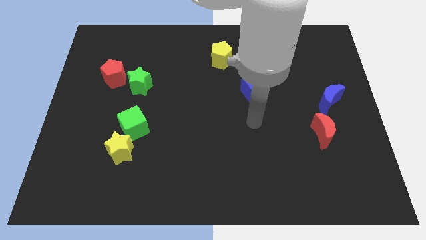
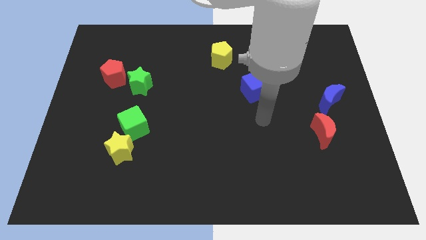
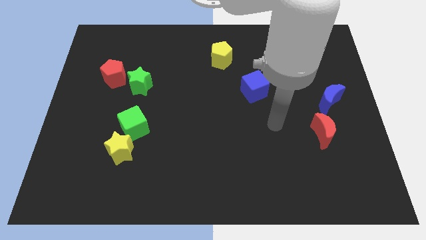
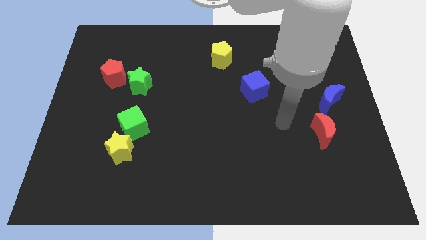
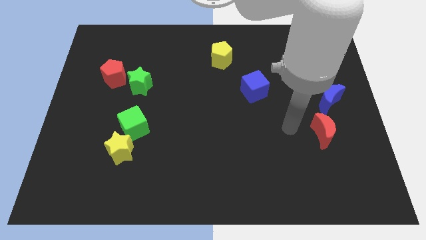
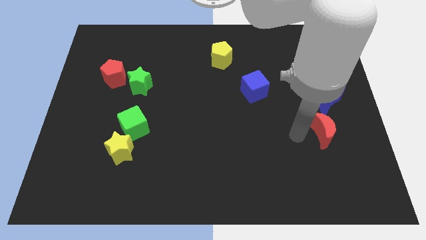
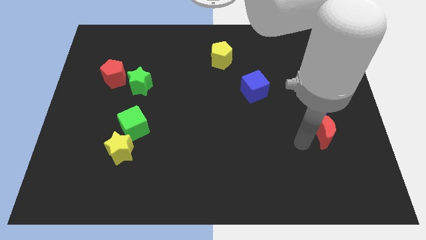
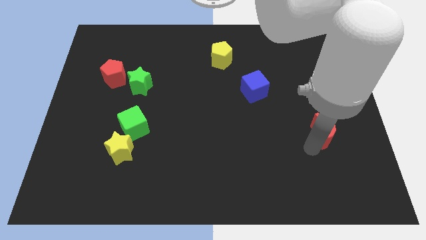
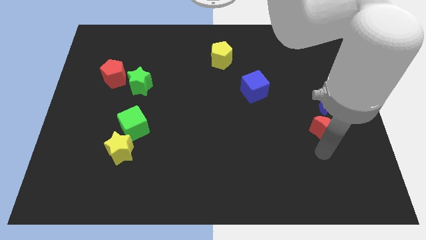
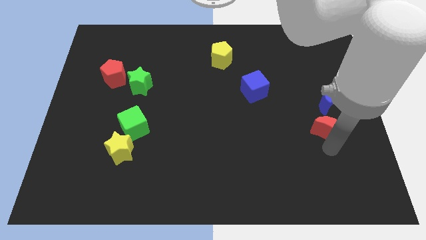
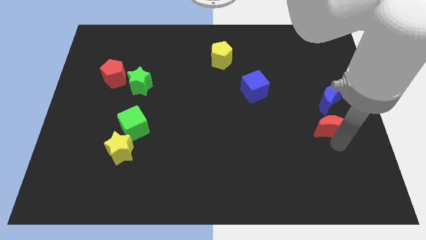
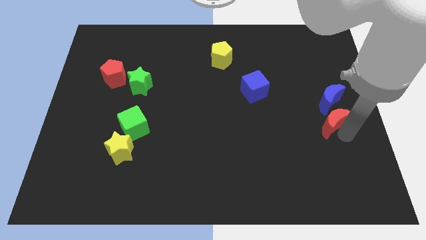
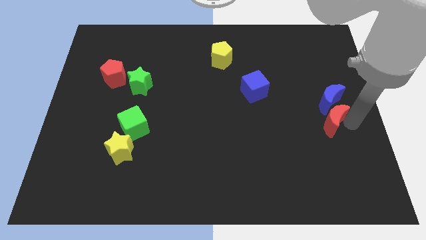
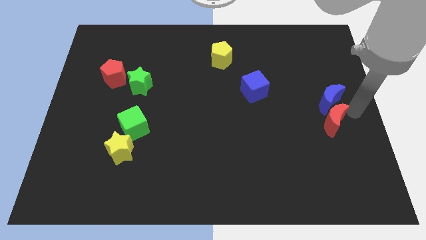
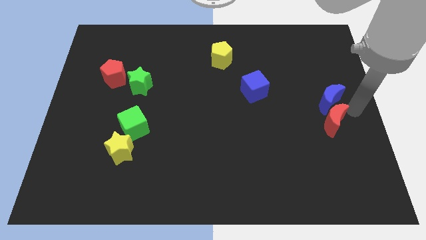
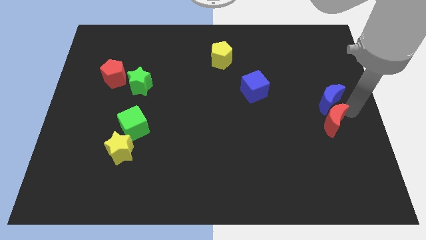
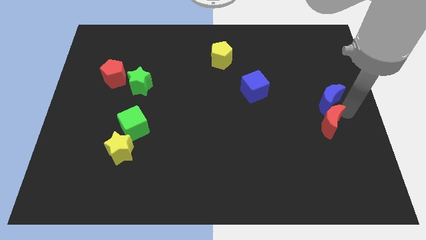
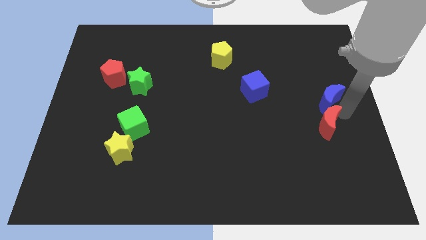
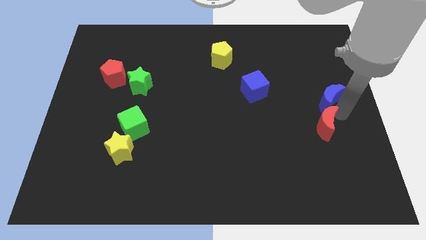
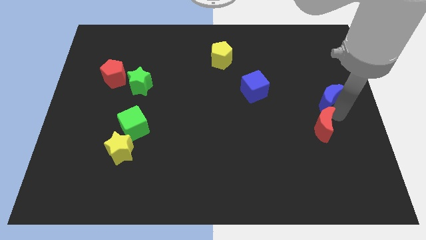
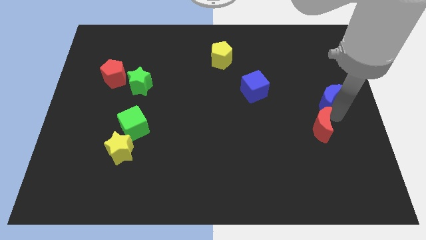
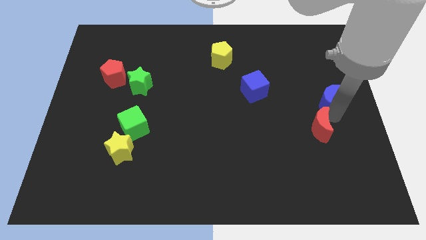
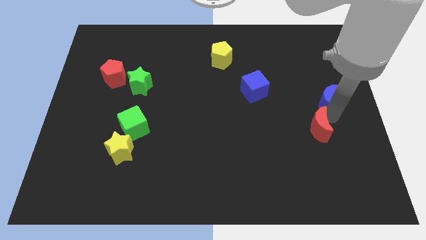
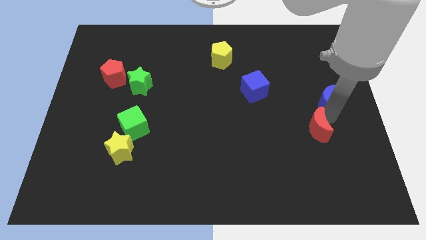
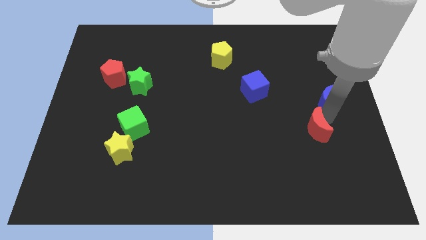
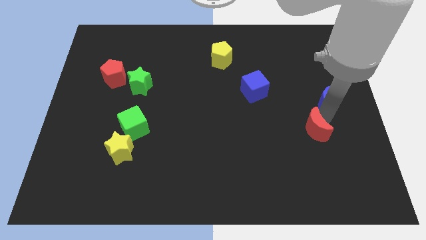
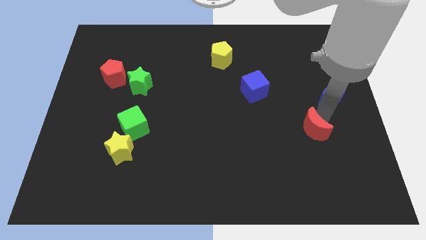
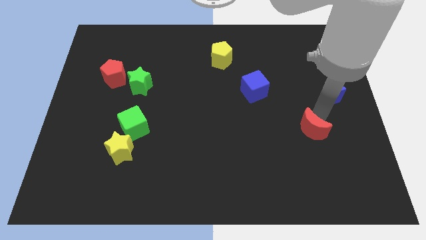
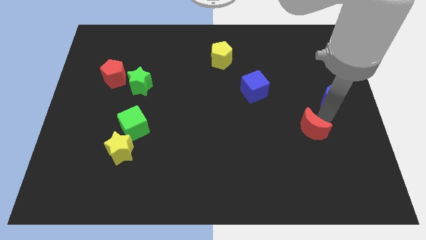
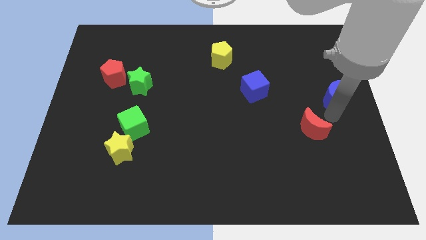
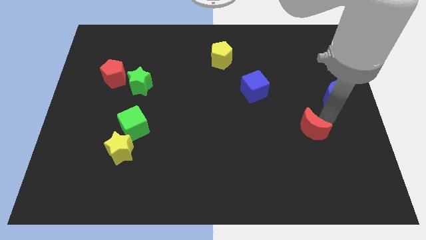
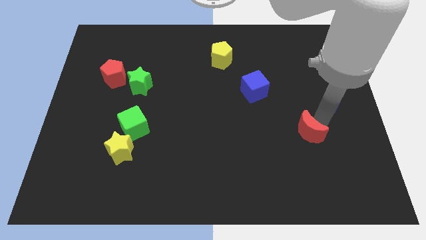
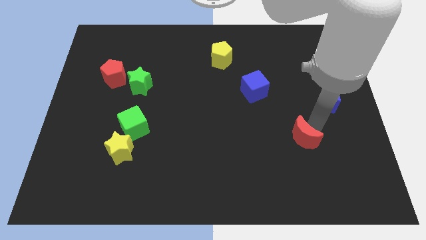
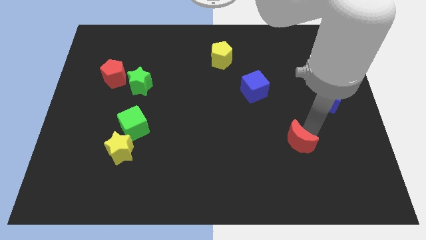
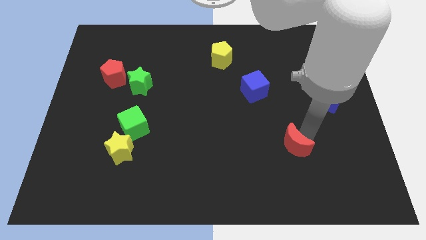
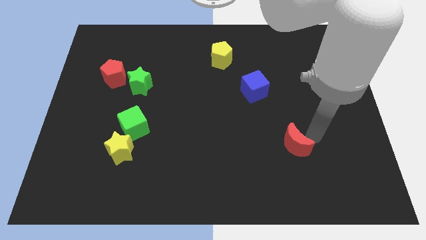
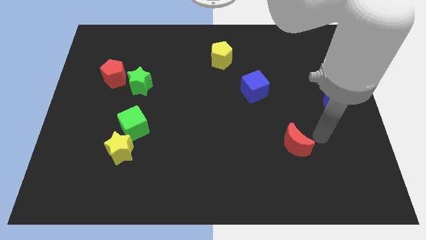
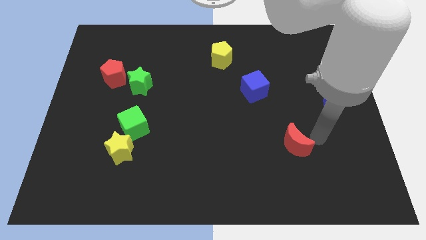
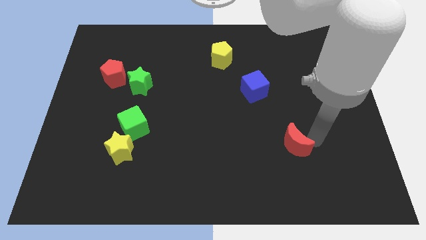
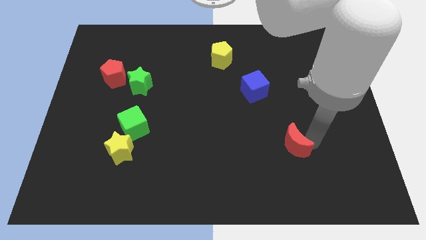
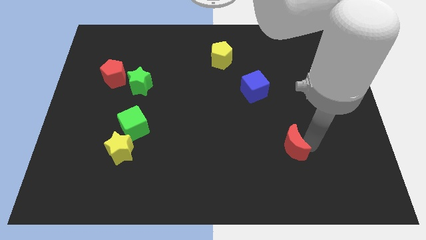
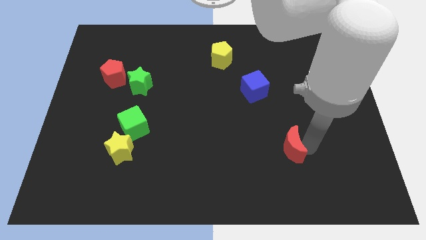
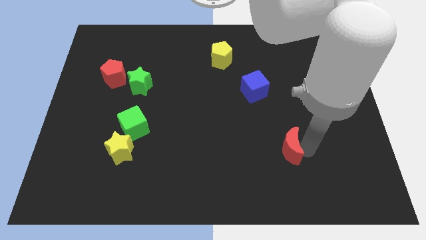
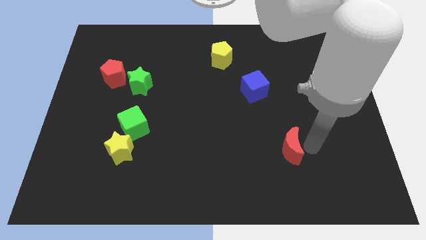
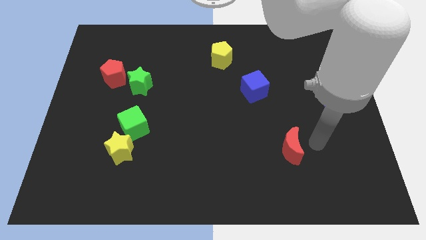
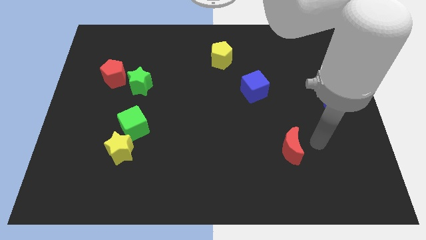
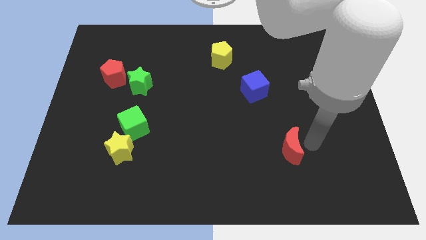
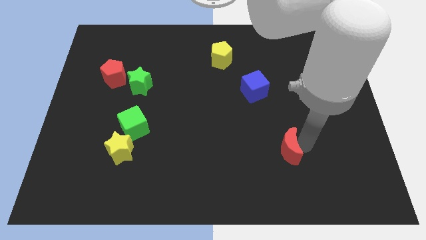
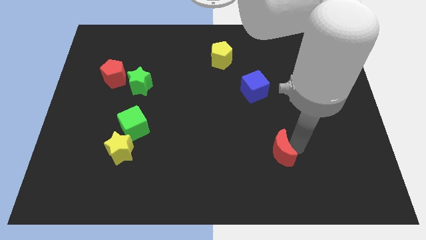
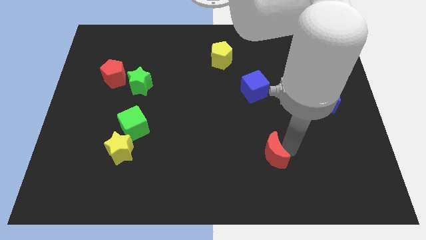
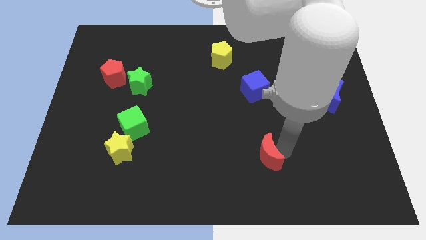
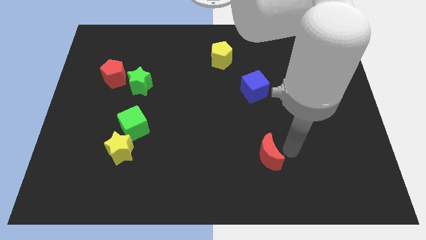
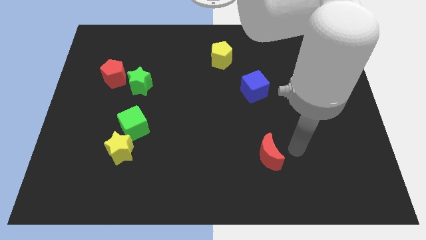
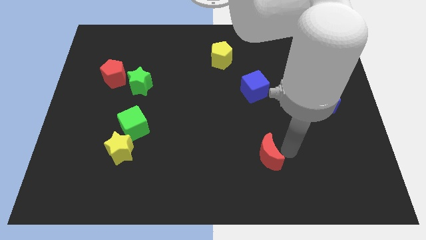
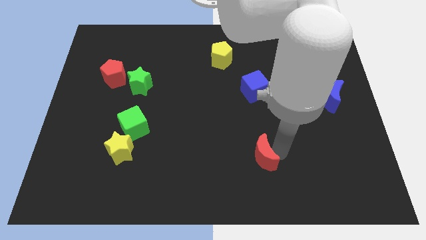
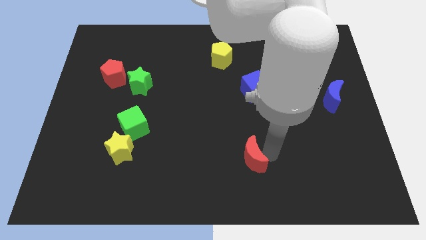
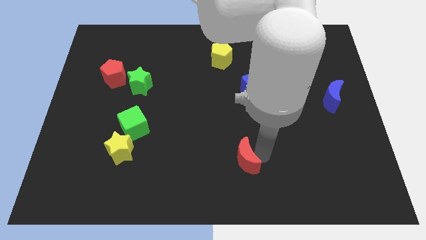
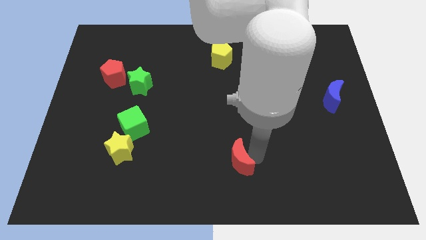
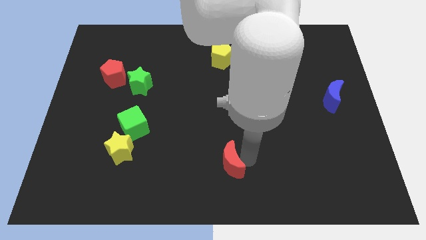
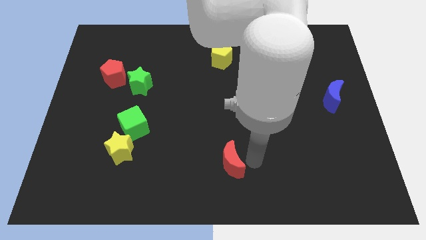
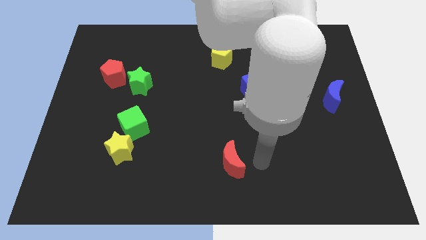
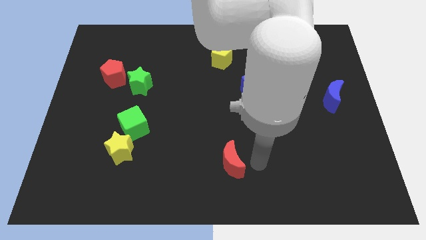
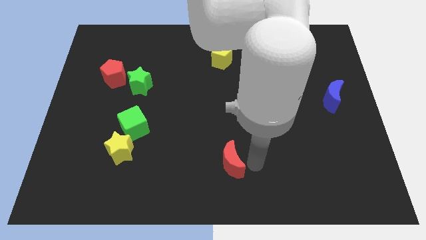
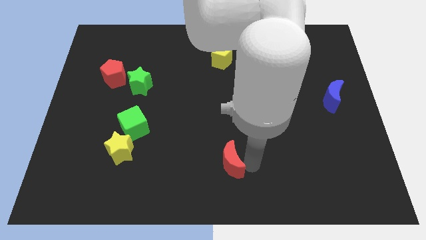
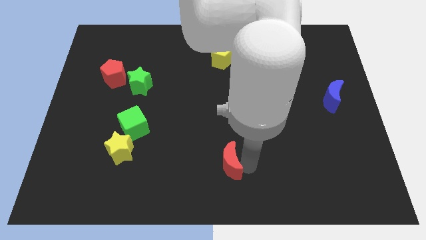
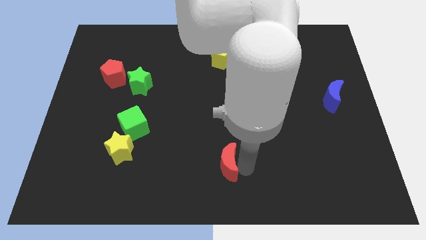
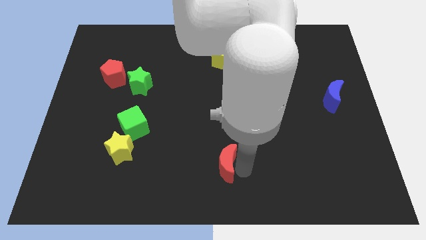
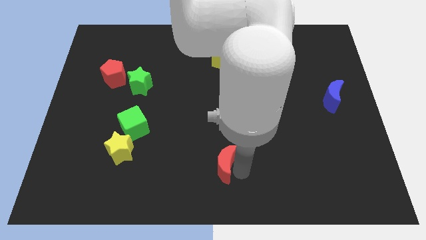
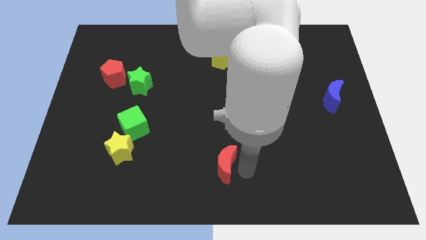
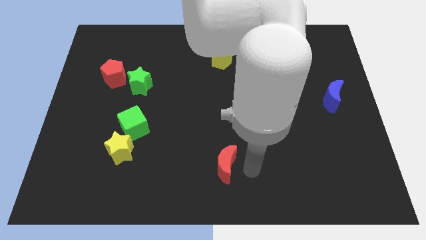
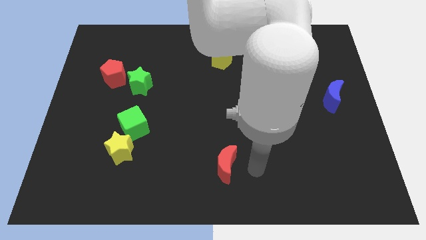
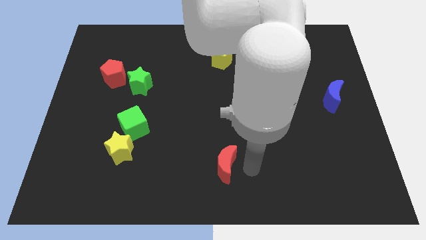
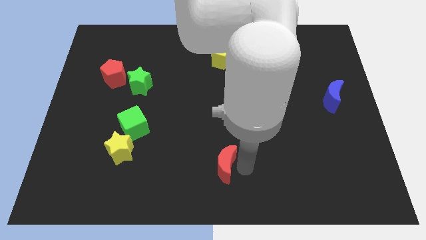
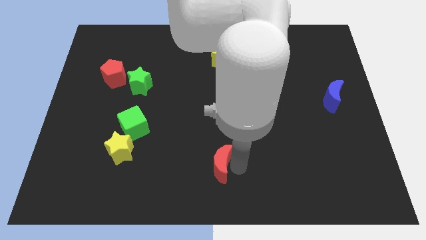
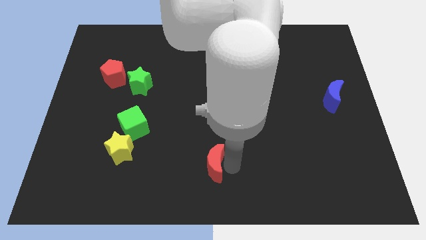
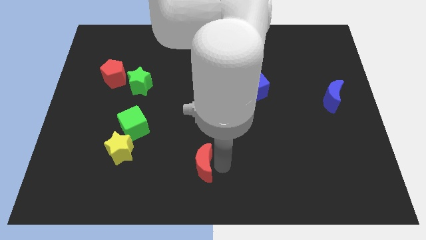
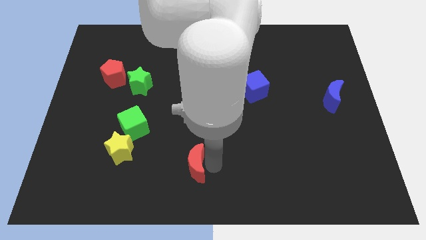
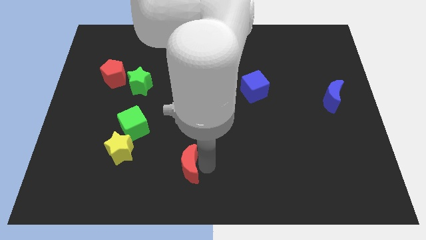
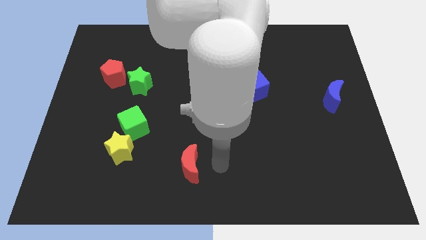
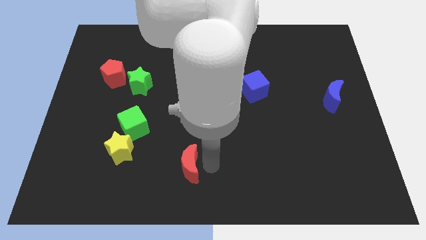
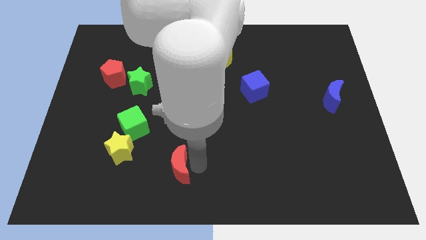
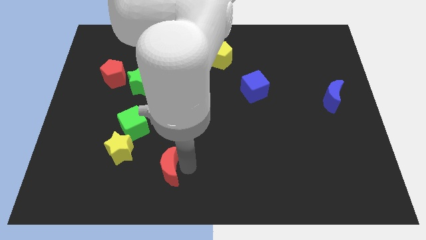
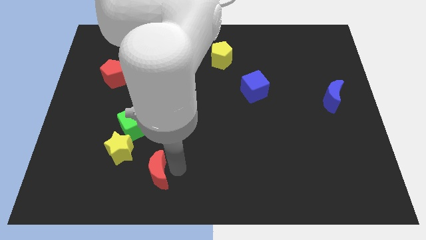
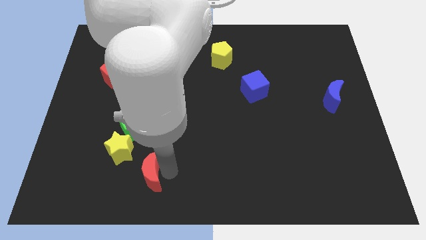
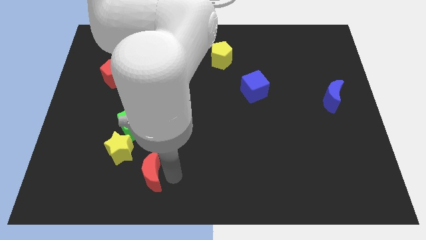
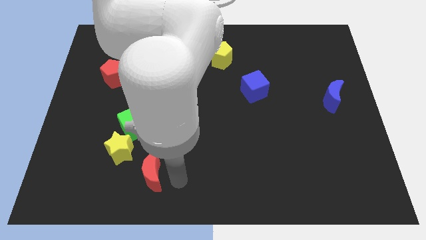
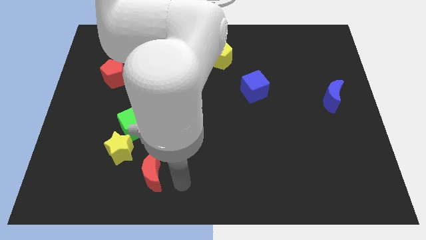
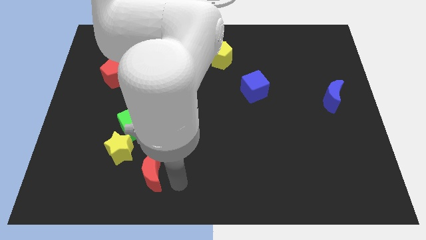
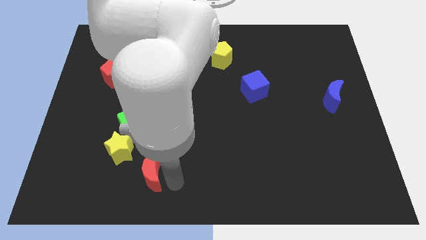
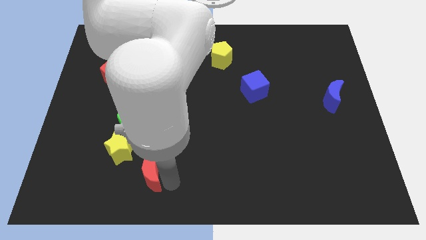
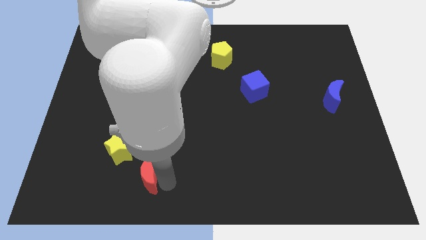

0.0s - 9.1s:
push the red moon below the green cube
